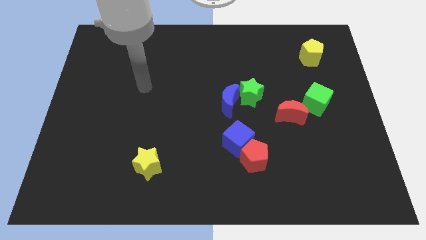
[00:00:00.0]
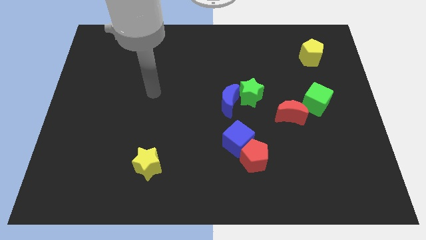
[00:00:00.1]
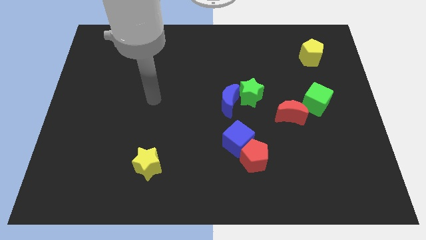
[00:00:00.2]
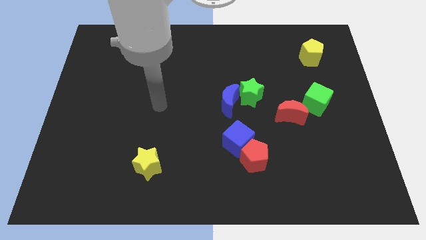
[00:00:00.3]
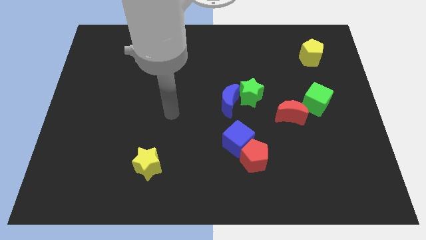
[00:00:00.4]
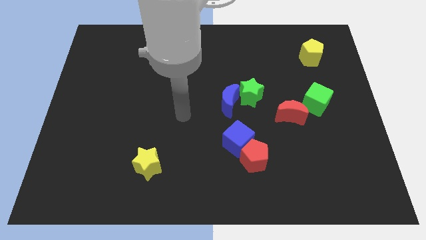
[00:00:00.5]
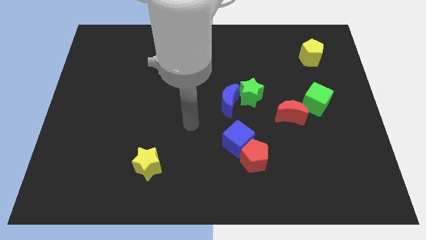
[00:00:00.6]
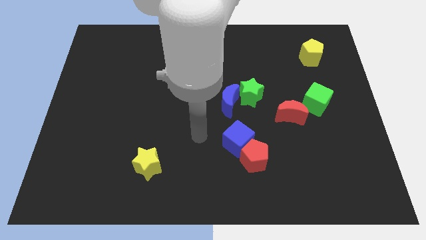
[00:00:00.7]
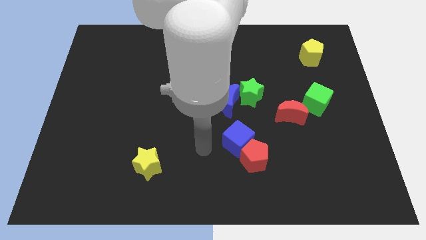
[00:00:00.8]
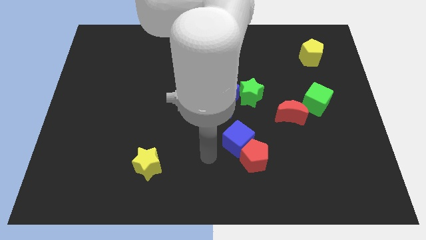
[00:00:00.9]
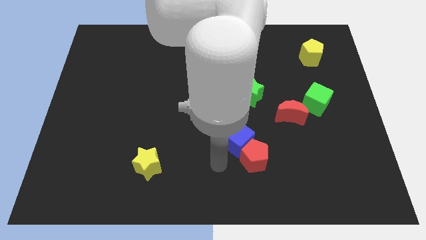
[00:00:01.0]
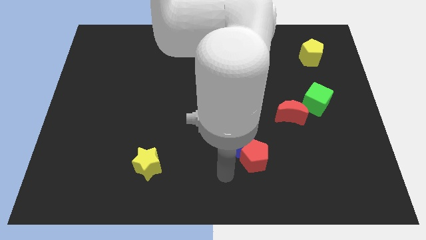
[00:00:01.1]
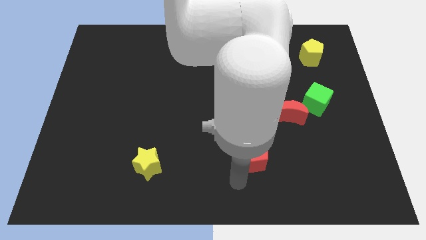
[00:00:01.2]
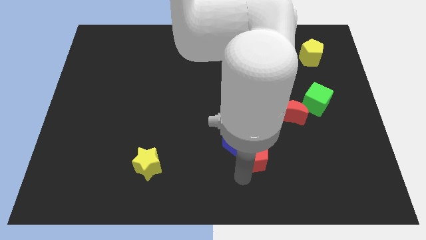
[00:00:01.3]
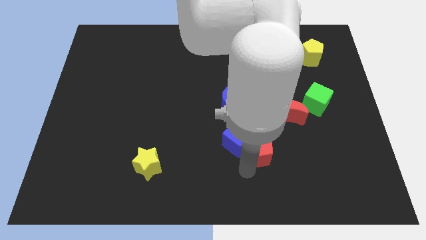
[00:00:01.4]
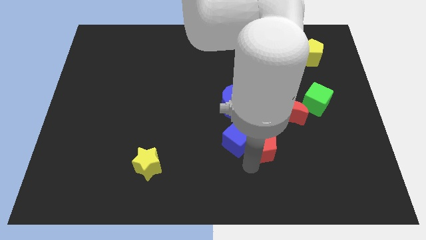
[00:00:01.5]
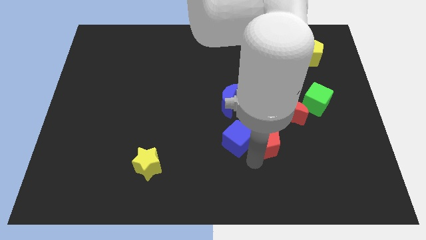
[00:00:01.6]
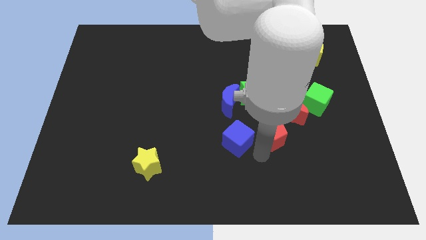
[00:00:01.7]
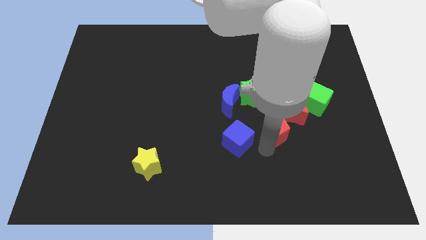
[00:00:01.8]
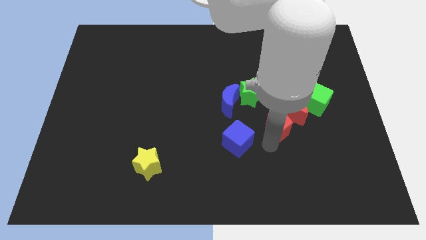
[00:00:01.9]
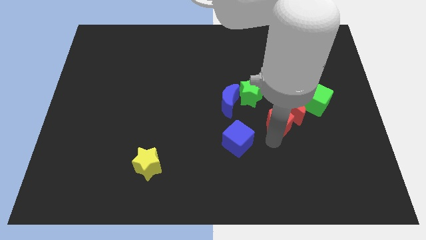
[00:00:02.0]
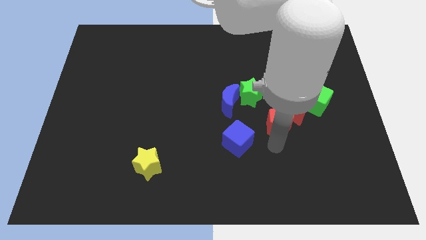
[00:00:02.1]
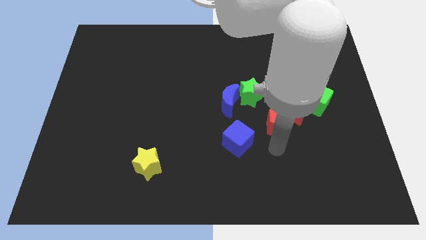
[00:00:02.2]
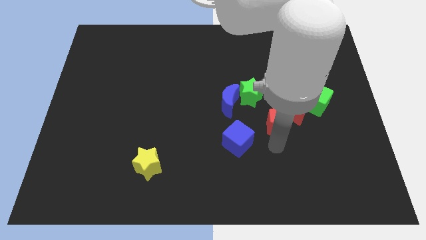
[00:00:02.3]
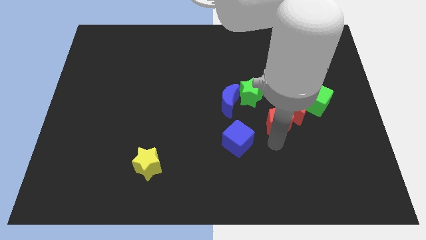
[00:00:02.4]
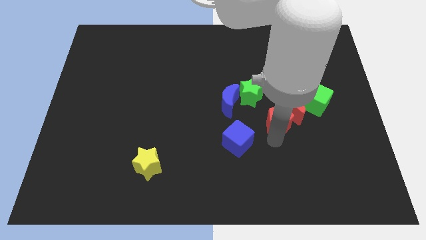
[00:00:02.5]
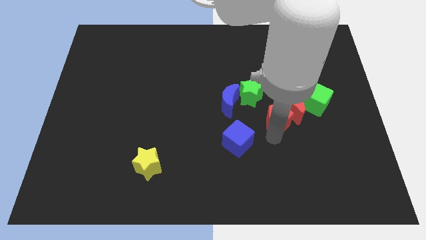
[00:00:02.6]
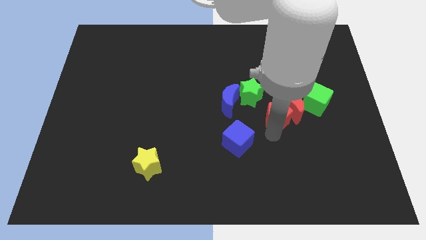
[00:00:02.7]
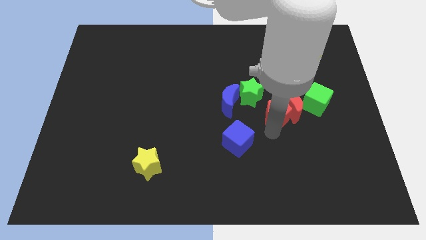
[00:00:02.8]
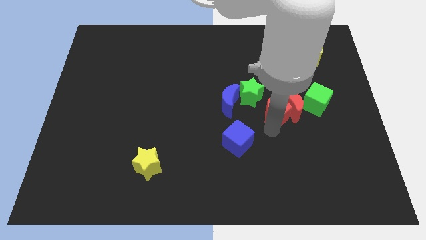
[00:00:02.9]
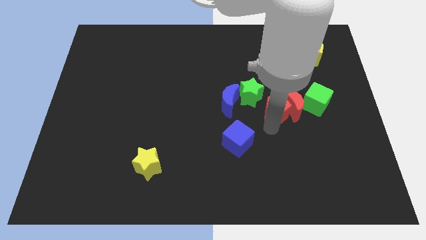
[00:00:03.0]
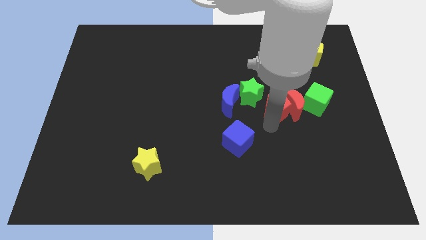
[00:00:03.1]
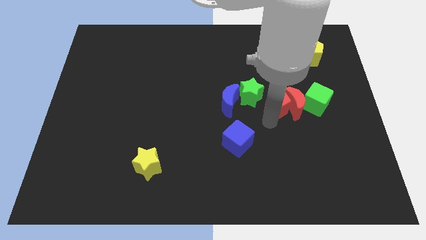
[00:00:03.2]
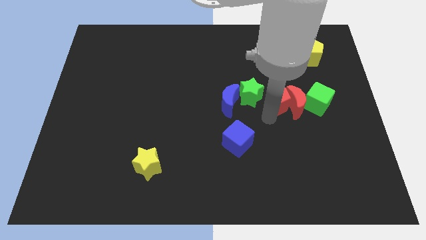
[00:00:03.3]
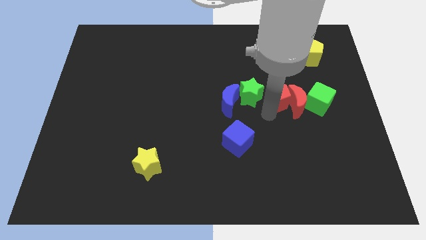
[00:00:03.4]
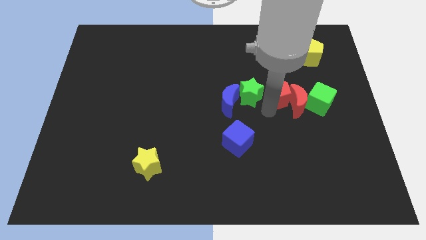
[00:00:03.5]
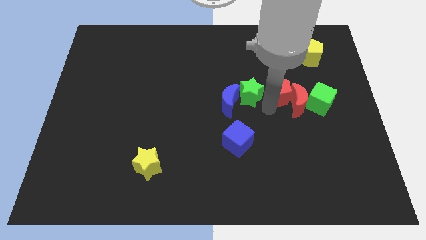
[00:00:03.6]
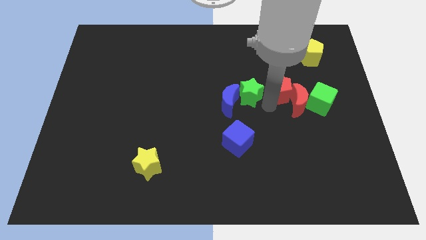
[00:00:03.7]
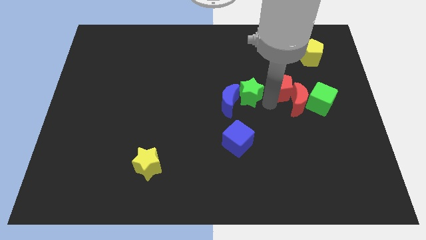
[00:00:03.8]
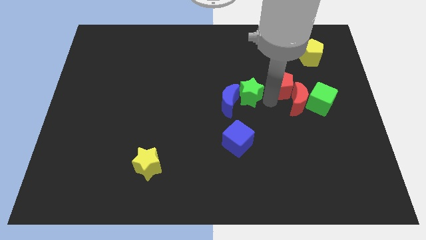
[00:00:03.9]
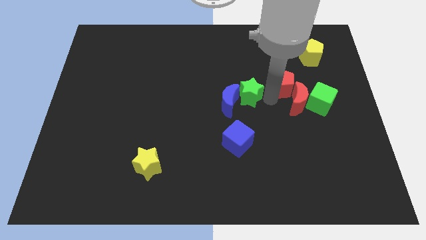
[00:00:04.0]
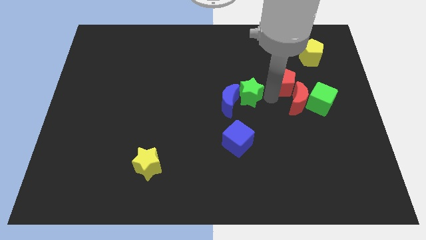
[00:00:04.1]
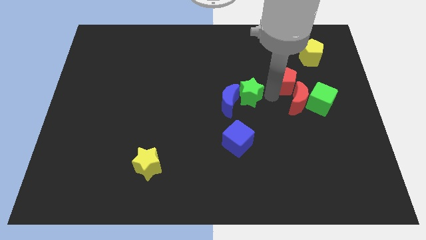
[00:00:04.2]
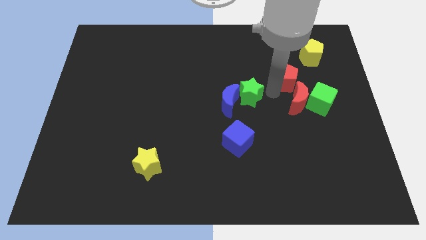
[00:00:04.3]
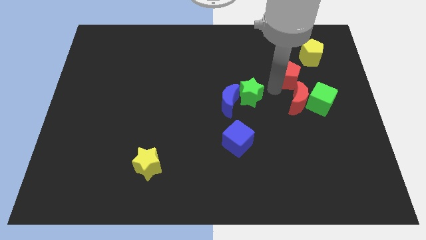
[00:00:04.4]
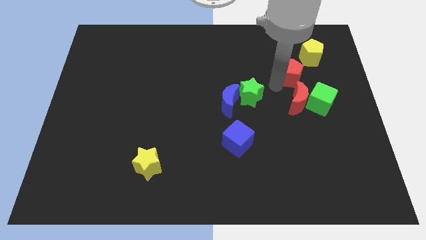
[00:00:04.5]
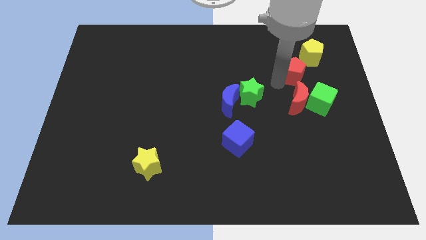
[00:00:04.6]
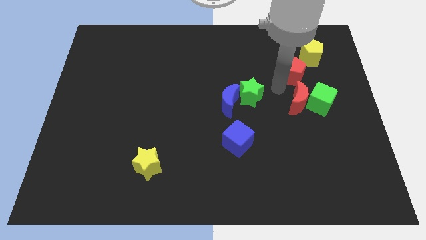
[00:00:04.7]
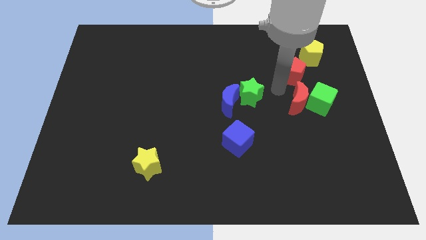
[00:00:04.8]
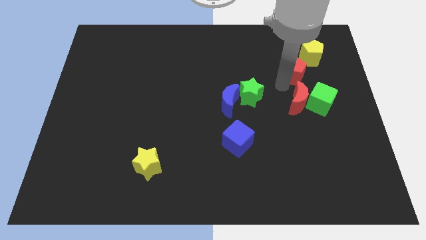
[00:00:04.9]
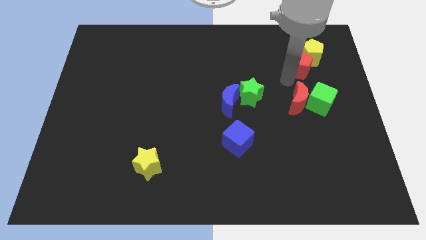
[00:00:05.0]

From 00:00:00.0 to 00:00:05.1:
put the red pentagon close to the yellow pentagon

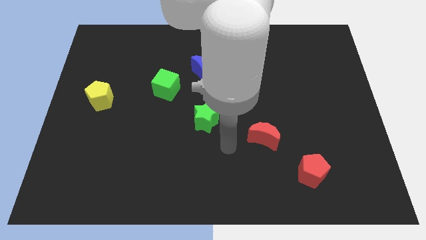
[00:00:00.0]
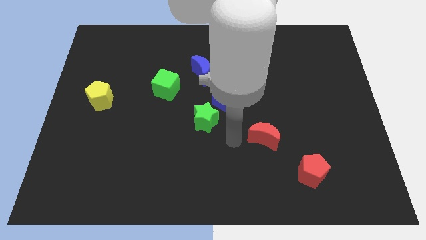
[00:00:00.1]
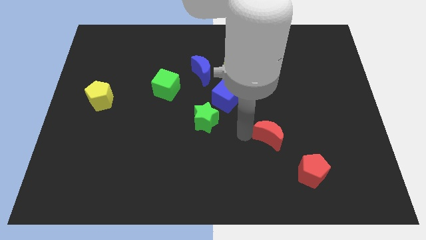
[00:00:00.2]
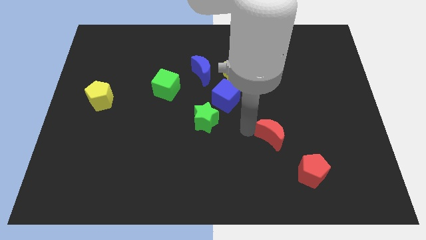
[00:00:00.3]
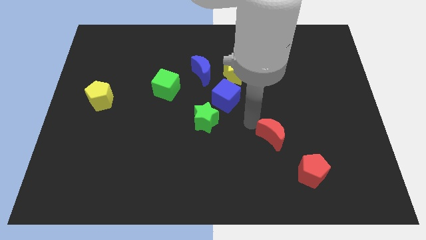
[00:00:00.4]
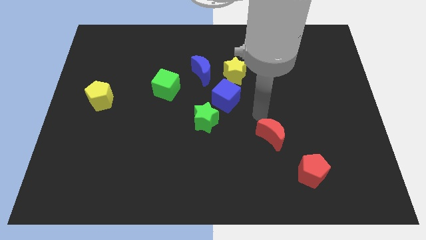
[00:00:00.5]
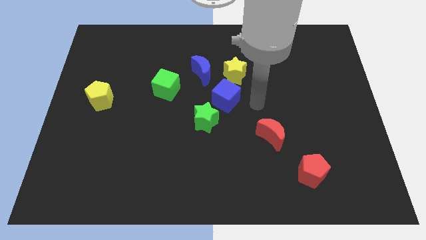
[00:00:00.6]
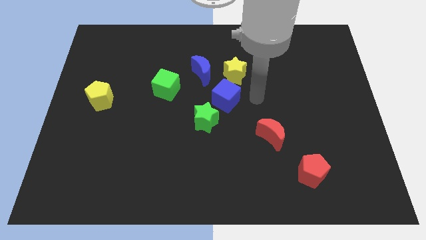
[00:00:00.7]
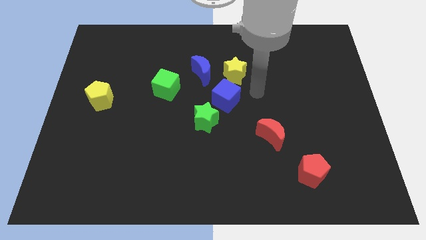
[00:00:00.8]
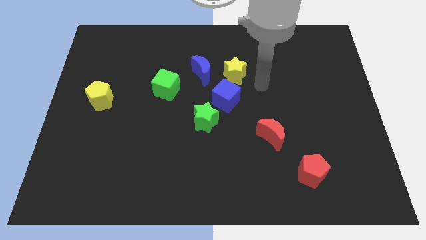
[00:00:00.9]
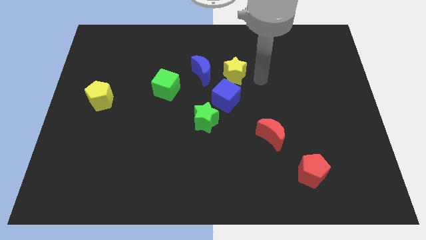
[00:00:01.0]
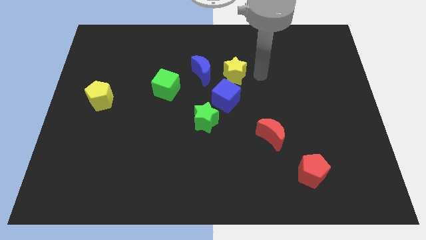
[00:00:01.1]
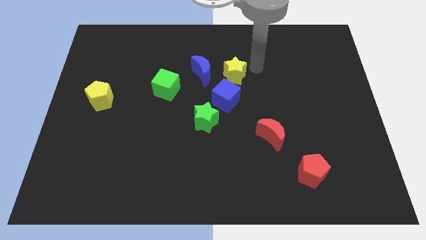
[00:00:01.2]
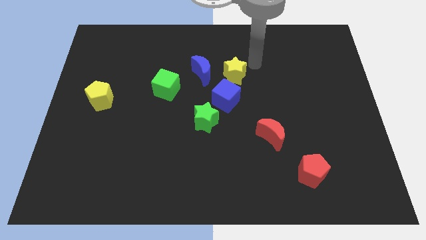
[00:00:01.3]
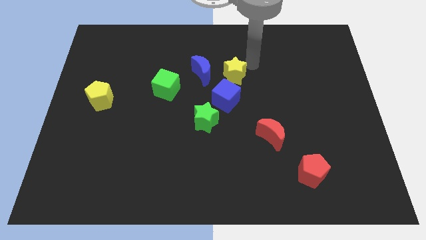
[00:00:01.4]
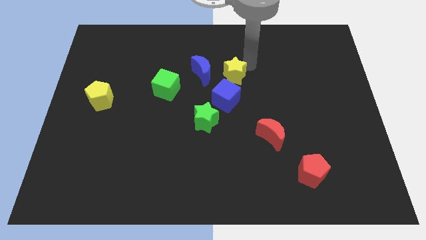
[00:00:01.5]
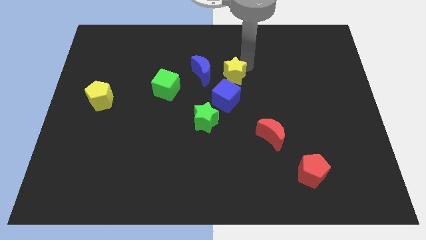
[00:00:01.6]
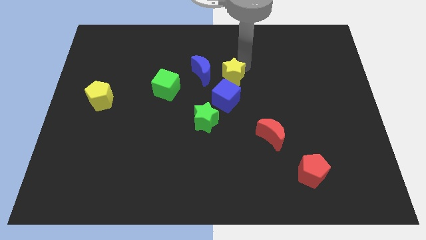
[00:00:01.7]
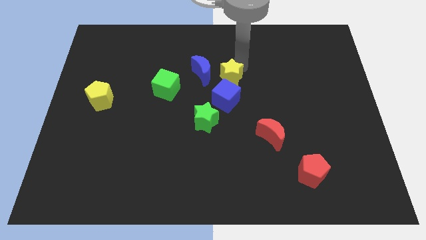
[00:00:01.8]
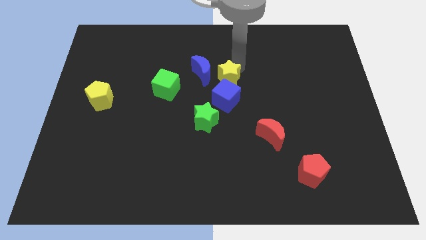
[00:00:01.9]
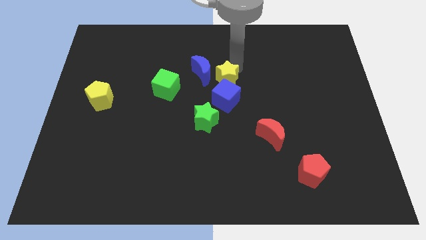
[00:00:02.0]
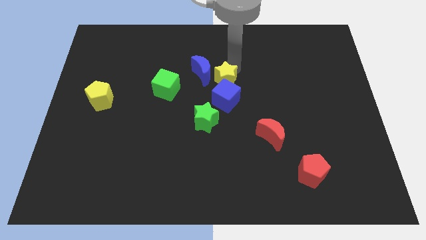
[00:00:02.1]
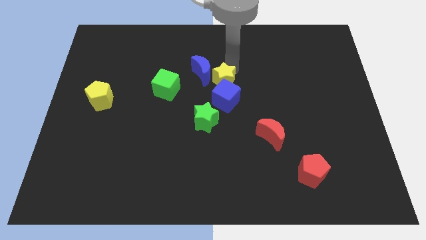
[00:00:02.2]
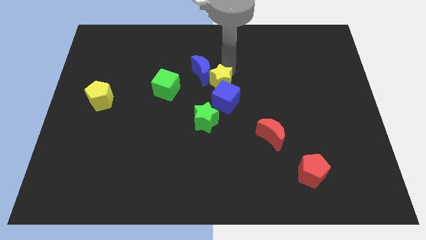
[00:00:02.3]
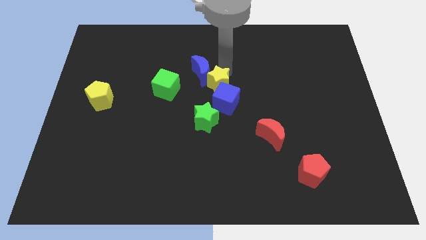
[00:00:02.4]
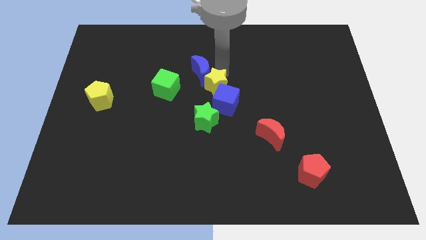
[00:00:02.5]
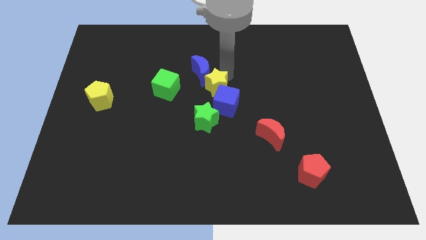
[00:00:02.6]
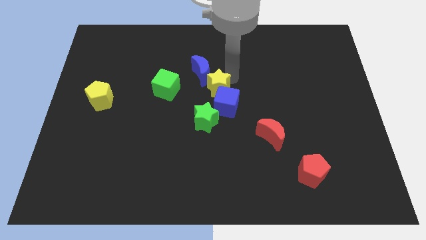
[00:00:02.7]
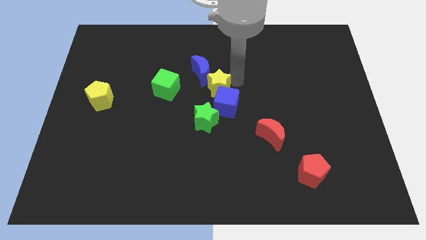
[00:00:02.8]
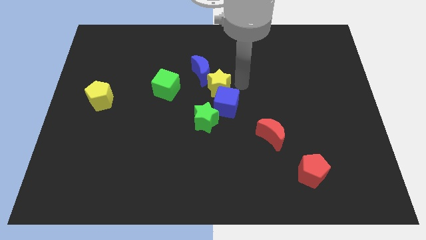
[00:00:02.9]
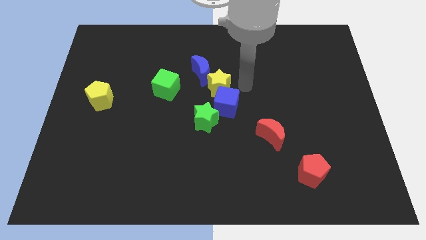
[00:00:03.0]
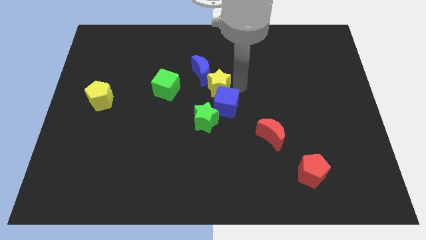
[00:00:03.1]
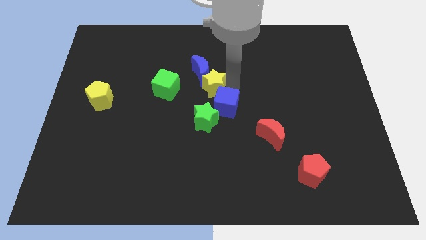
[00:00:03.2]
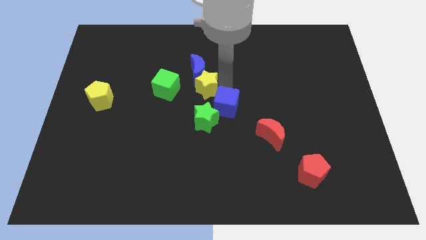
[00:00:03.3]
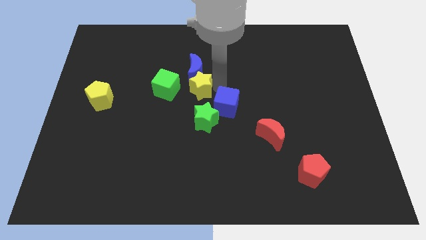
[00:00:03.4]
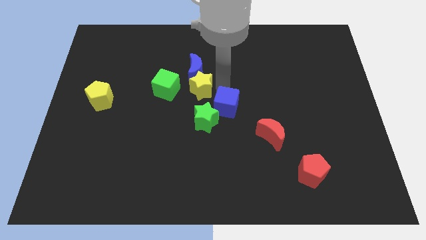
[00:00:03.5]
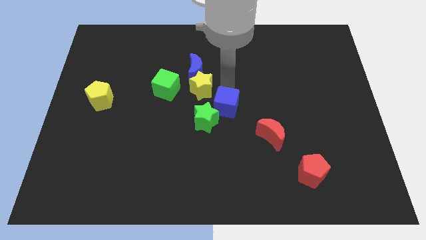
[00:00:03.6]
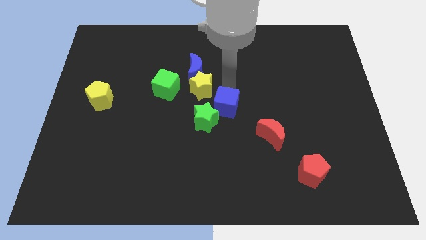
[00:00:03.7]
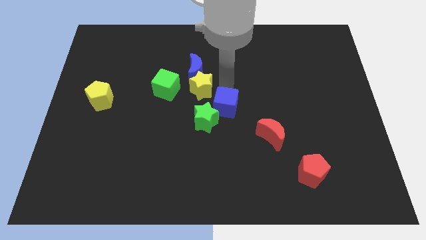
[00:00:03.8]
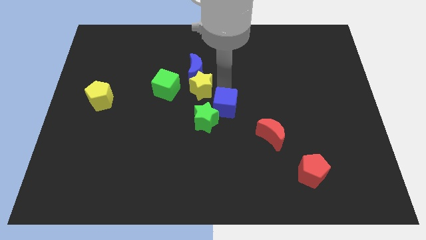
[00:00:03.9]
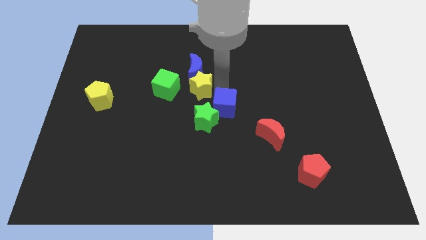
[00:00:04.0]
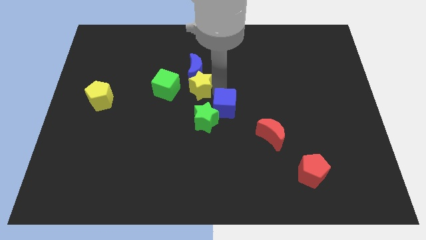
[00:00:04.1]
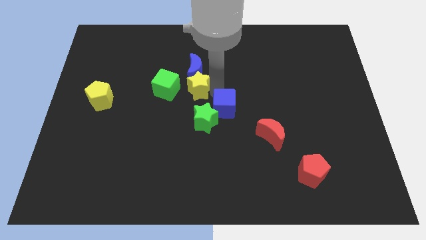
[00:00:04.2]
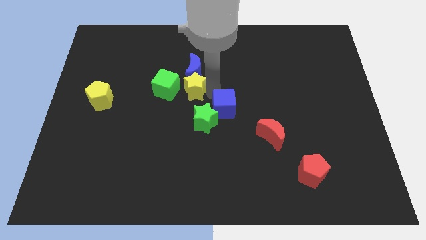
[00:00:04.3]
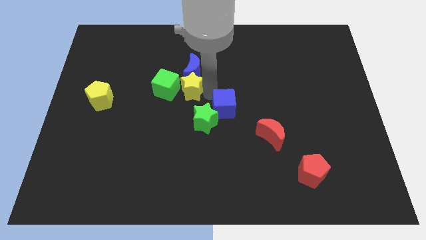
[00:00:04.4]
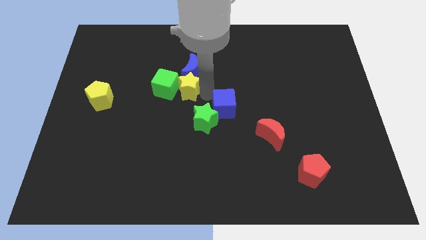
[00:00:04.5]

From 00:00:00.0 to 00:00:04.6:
move the yellow star towards the green cube
